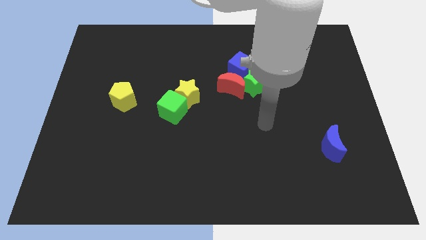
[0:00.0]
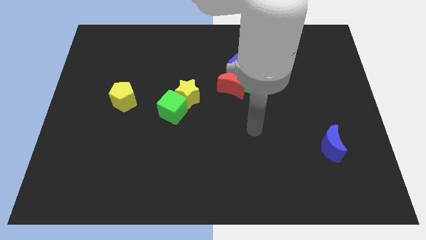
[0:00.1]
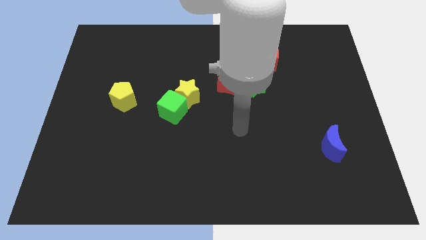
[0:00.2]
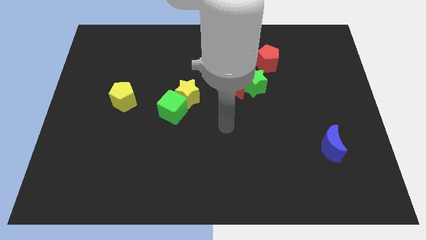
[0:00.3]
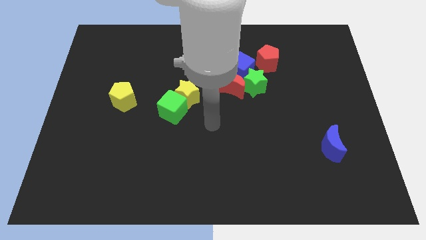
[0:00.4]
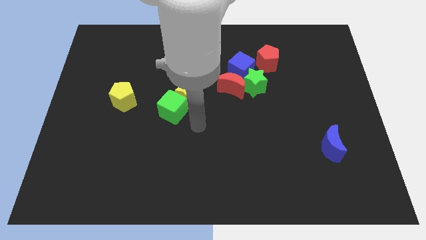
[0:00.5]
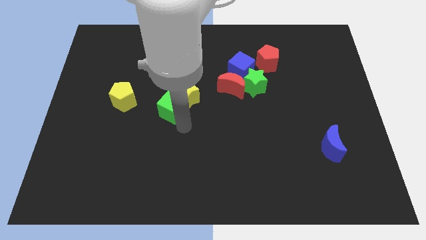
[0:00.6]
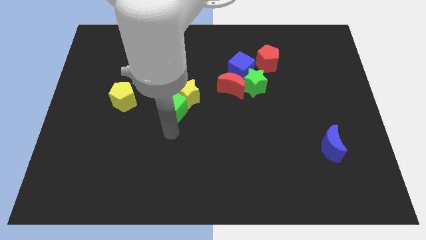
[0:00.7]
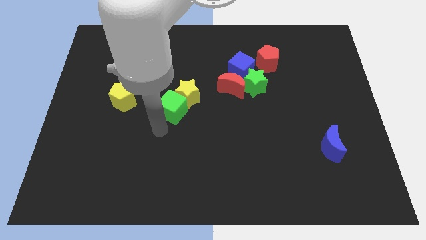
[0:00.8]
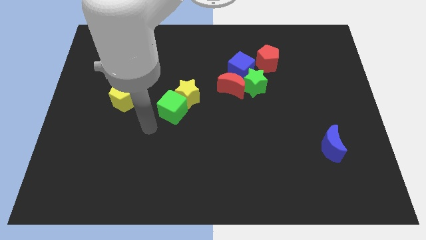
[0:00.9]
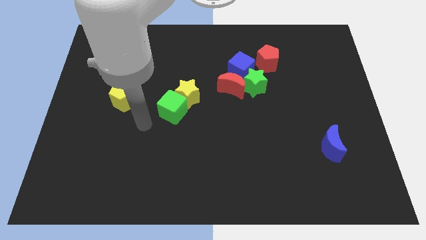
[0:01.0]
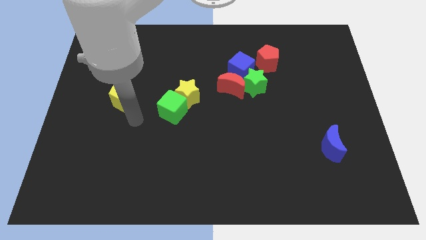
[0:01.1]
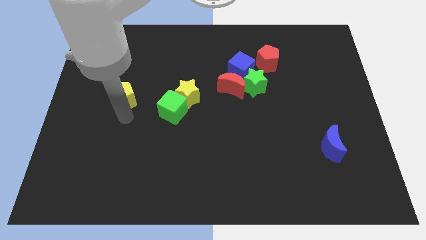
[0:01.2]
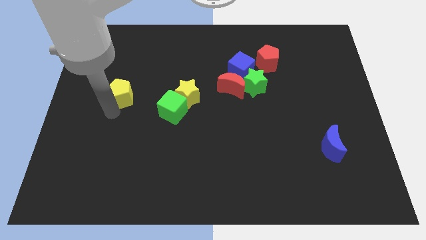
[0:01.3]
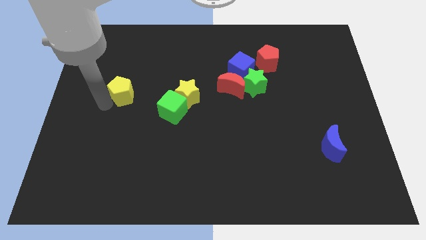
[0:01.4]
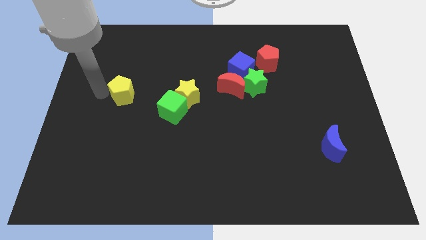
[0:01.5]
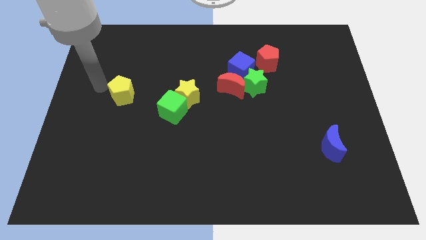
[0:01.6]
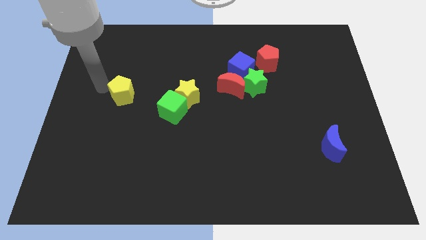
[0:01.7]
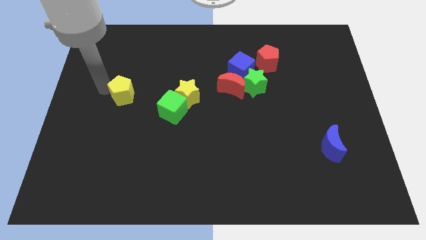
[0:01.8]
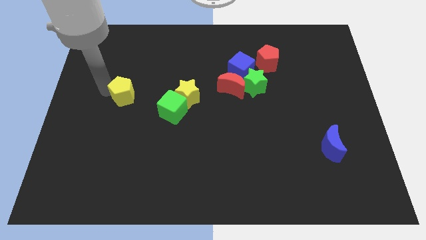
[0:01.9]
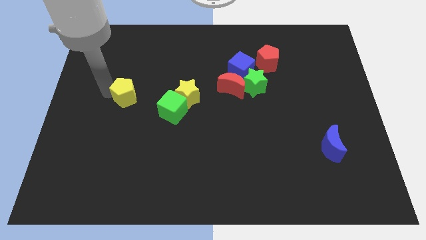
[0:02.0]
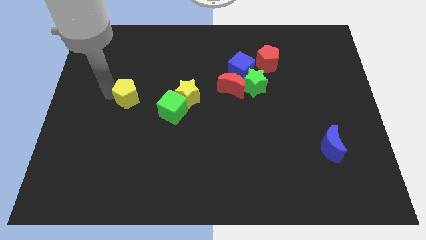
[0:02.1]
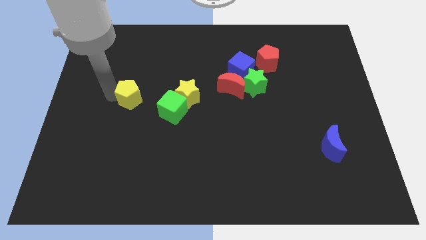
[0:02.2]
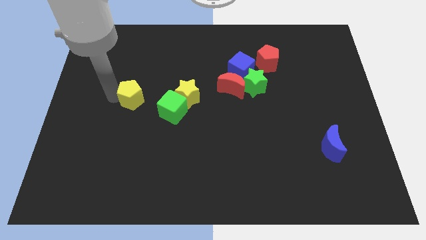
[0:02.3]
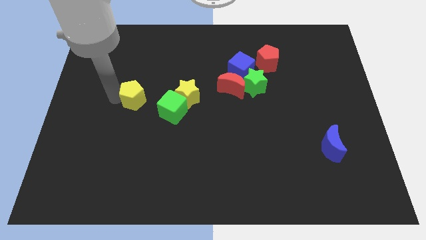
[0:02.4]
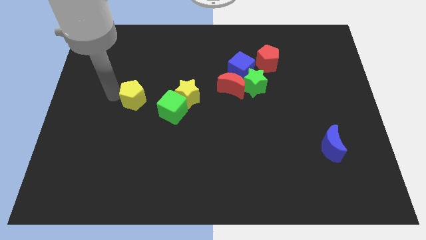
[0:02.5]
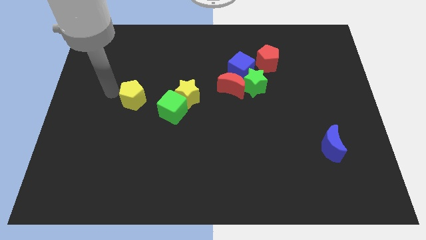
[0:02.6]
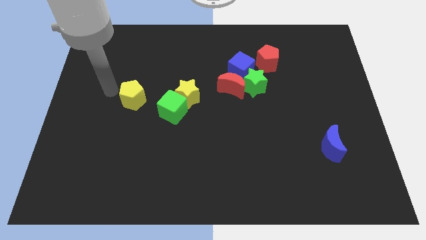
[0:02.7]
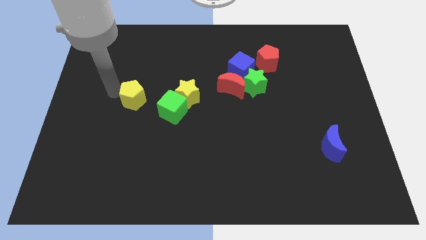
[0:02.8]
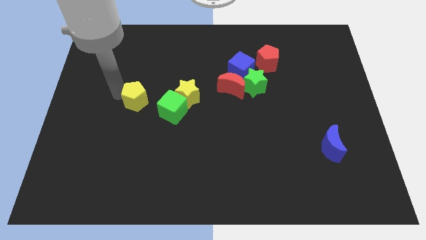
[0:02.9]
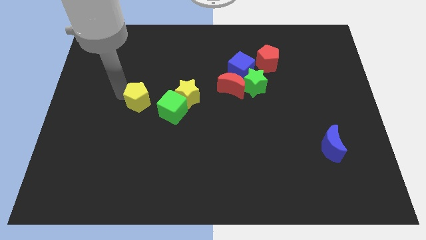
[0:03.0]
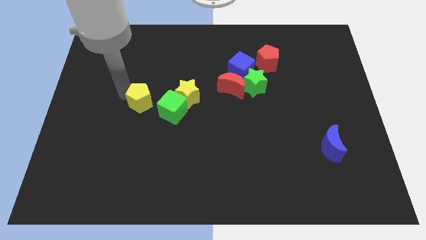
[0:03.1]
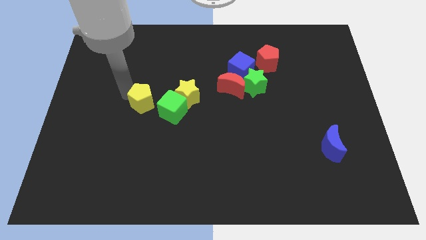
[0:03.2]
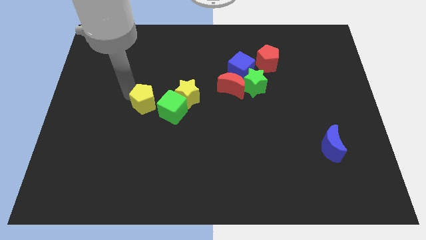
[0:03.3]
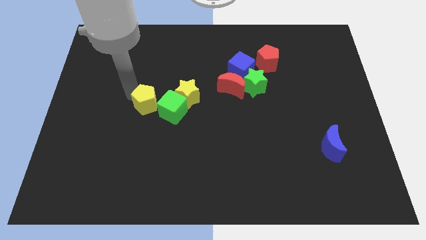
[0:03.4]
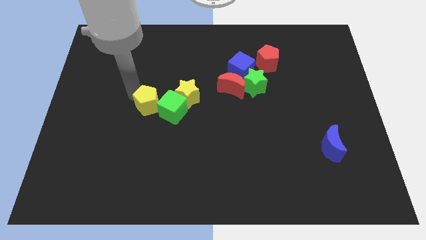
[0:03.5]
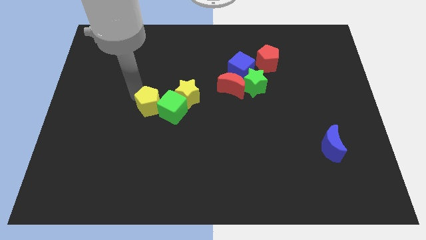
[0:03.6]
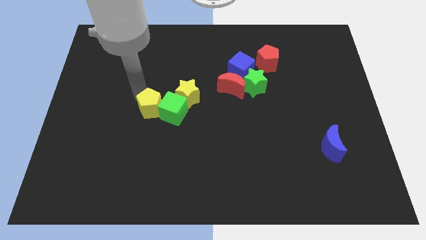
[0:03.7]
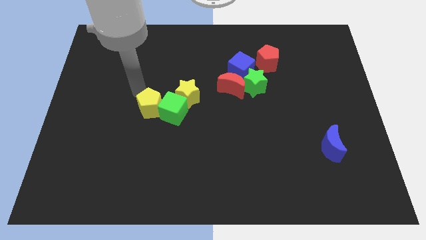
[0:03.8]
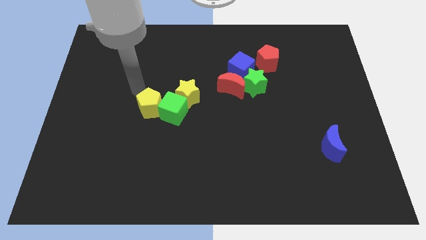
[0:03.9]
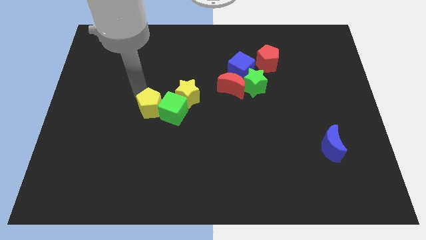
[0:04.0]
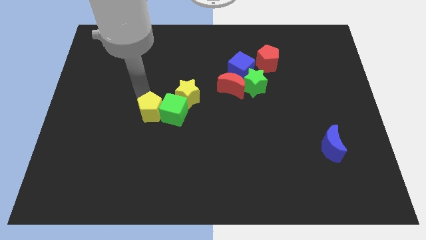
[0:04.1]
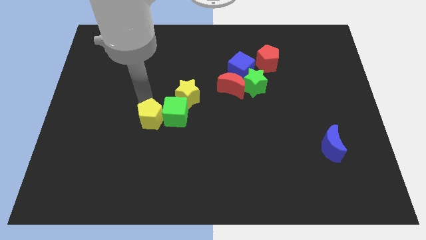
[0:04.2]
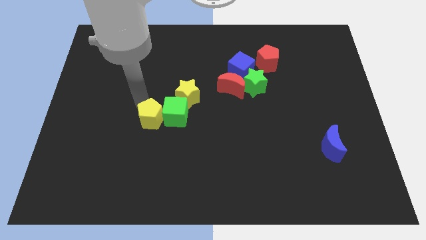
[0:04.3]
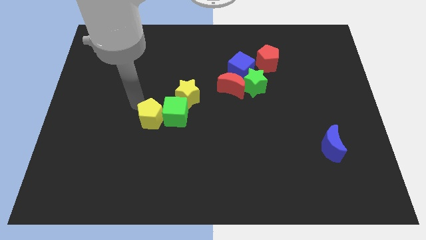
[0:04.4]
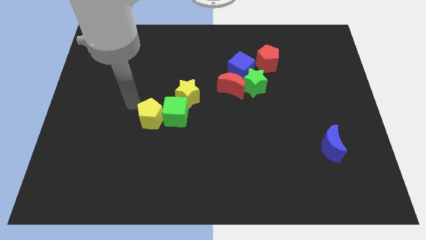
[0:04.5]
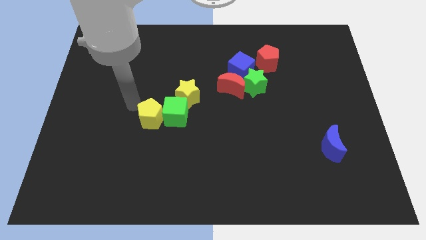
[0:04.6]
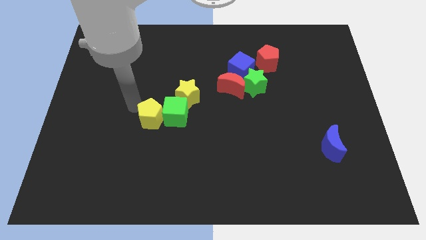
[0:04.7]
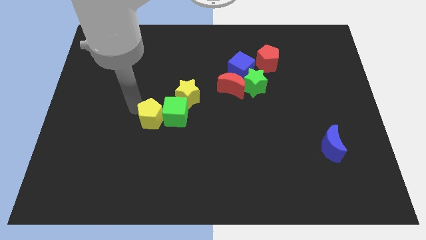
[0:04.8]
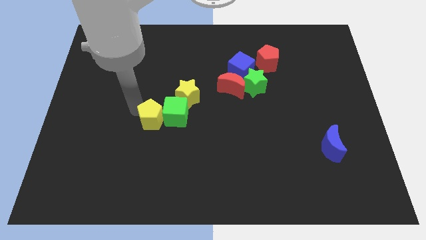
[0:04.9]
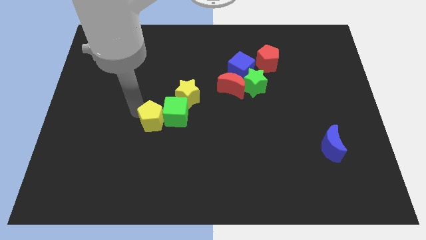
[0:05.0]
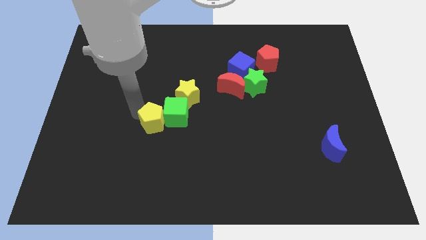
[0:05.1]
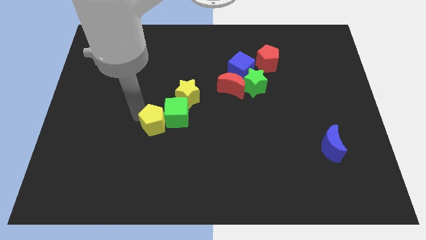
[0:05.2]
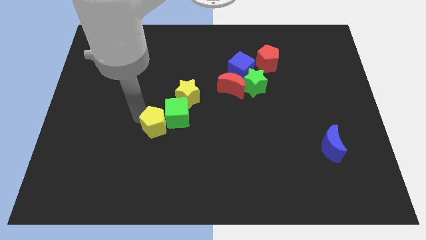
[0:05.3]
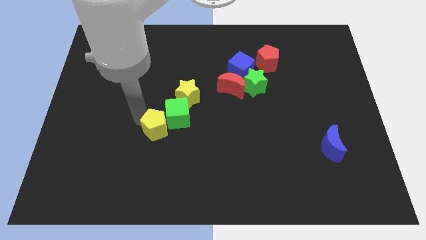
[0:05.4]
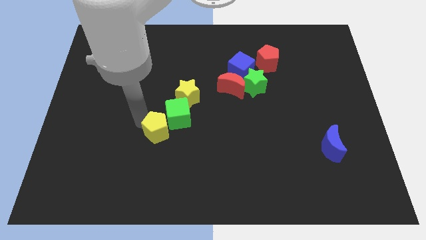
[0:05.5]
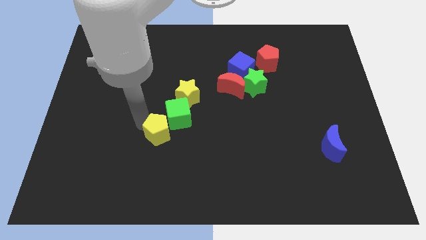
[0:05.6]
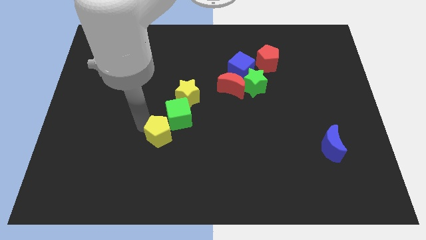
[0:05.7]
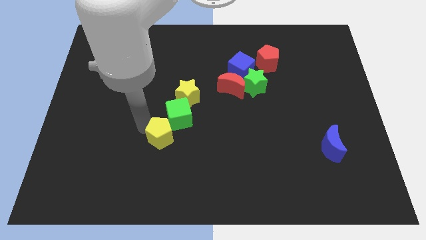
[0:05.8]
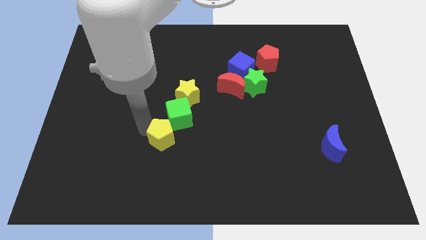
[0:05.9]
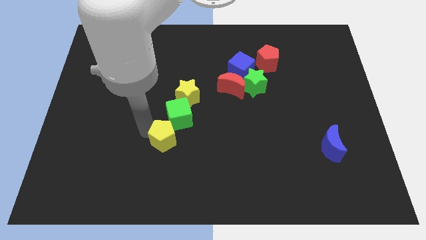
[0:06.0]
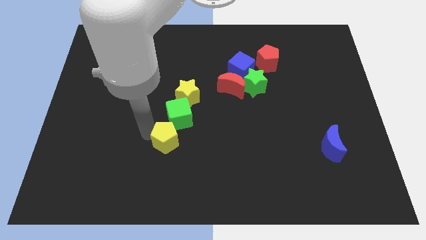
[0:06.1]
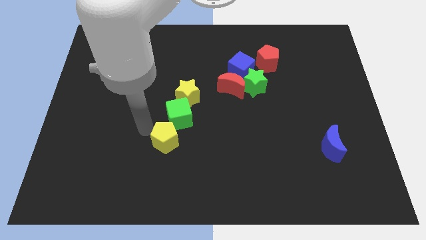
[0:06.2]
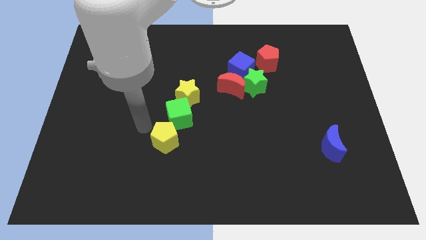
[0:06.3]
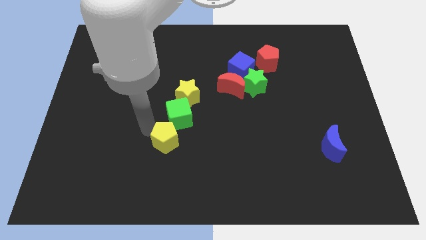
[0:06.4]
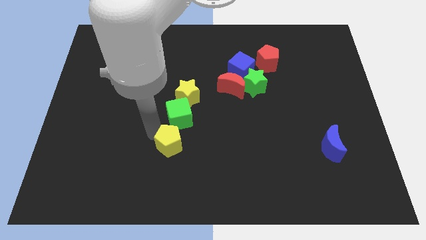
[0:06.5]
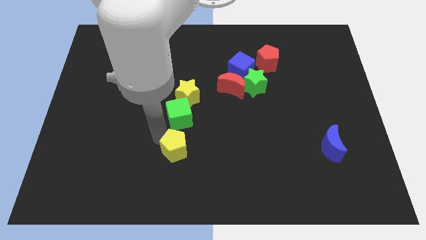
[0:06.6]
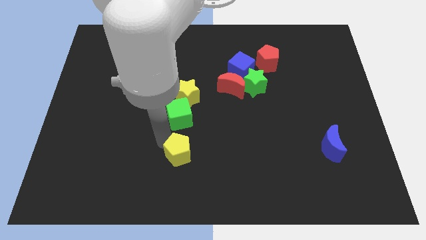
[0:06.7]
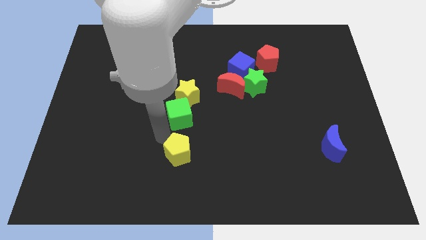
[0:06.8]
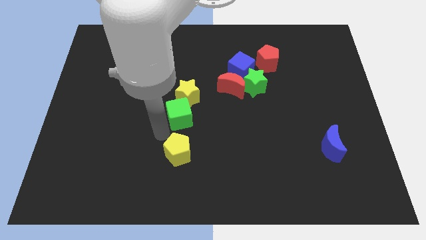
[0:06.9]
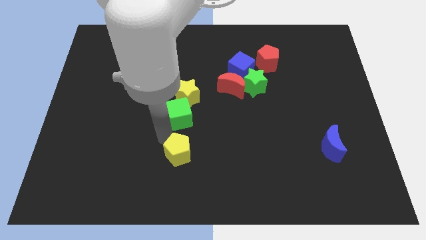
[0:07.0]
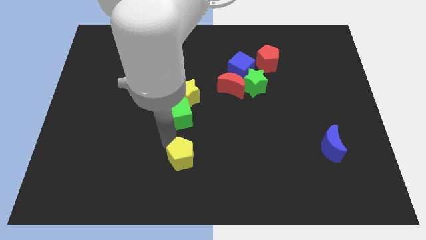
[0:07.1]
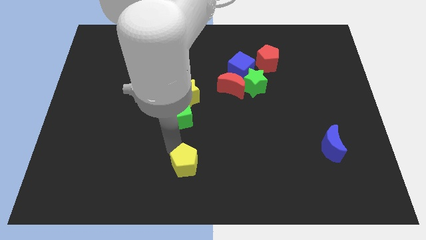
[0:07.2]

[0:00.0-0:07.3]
move the yellow pentagon to the bottom side
